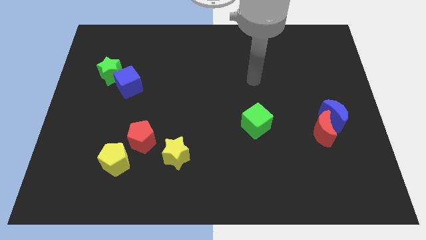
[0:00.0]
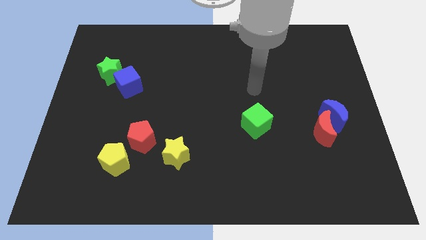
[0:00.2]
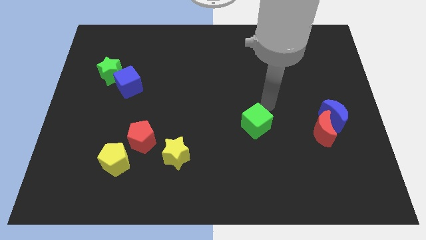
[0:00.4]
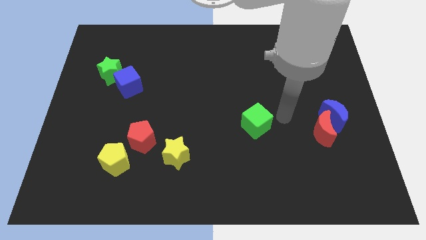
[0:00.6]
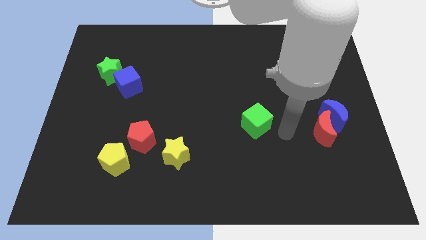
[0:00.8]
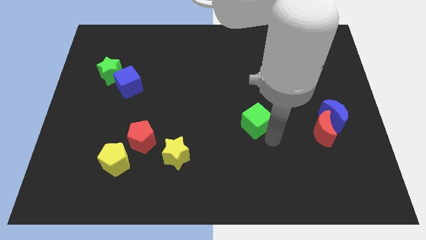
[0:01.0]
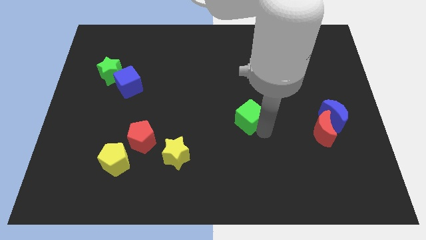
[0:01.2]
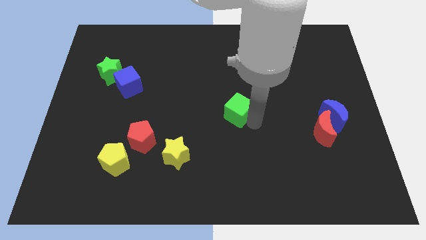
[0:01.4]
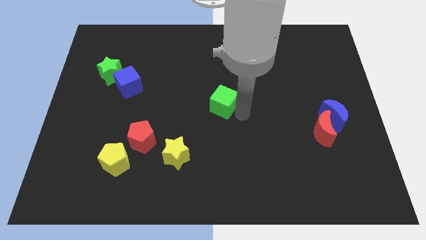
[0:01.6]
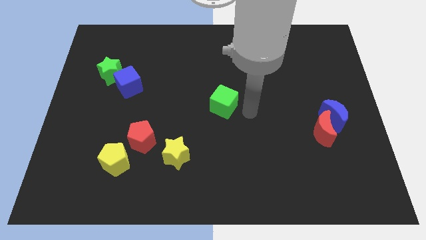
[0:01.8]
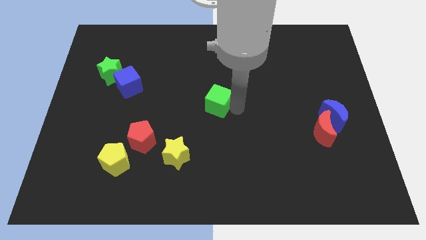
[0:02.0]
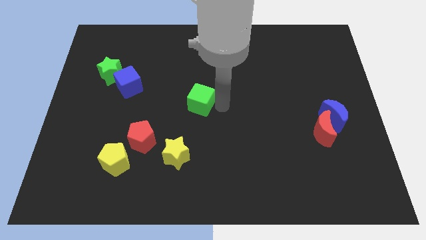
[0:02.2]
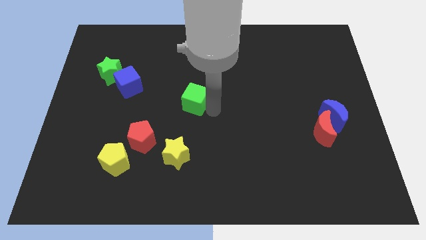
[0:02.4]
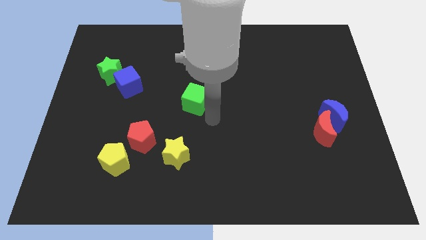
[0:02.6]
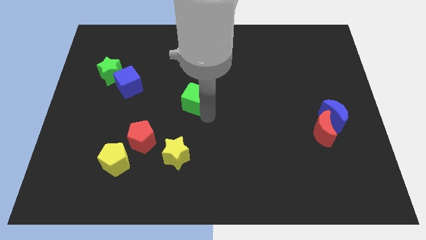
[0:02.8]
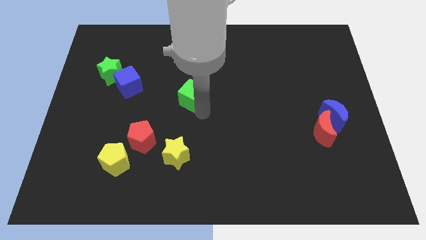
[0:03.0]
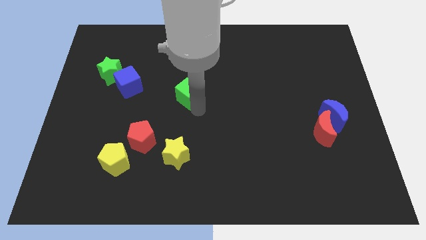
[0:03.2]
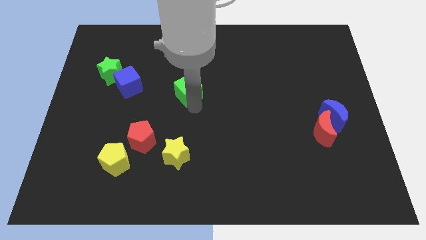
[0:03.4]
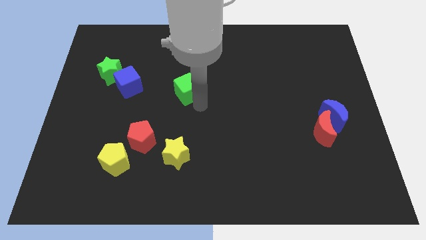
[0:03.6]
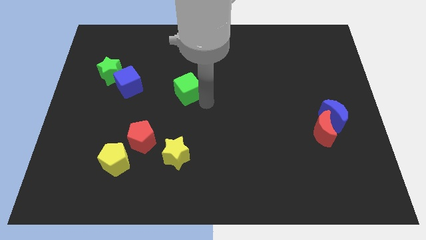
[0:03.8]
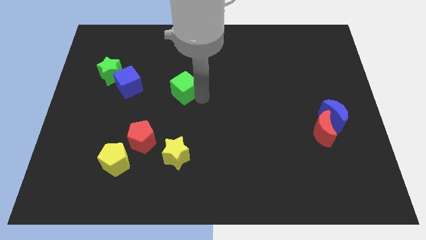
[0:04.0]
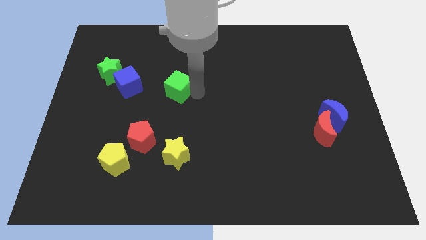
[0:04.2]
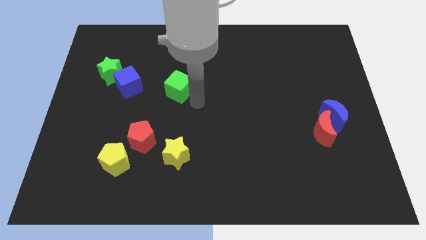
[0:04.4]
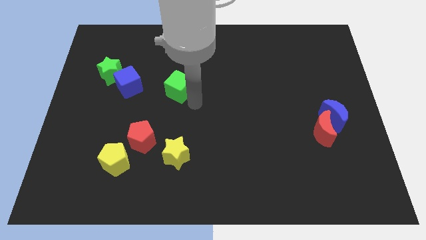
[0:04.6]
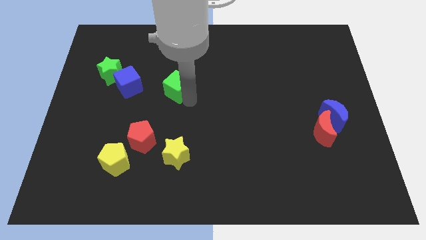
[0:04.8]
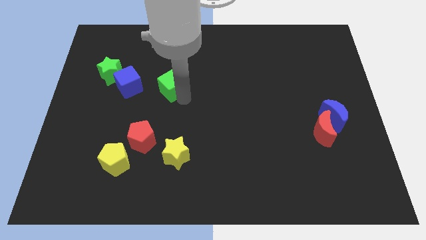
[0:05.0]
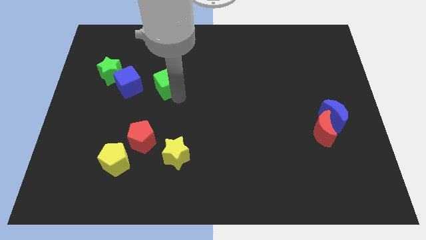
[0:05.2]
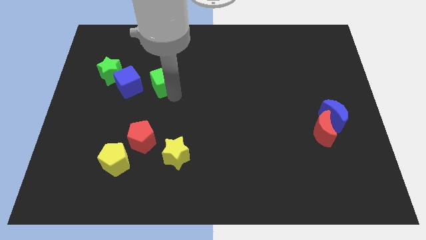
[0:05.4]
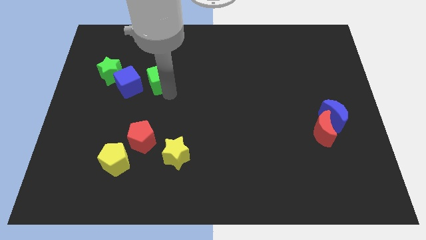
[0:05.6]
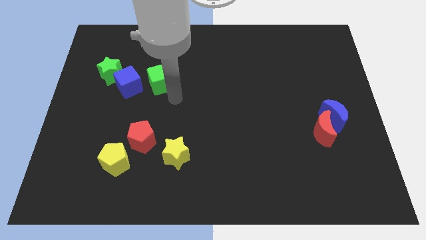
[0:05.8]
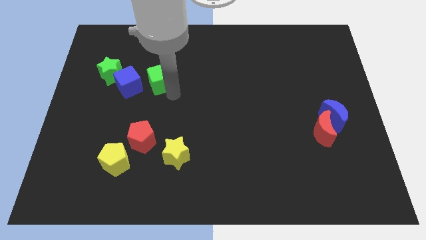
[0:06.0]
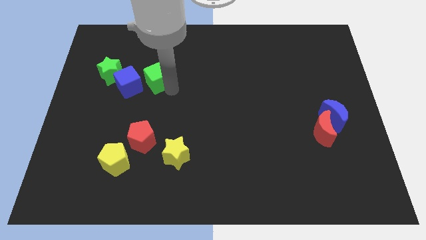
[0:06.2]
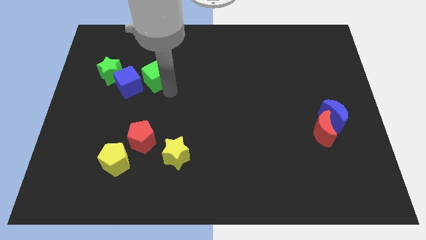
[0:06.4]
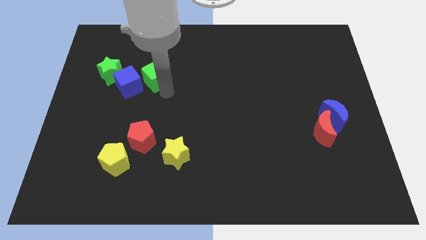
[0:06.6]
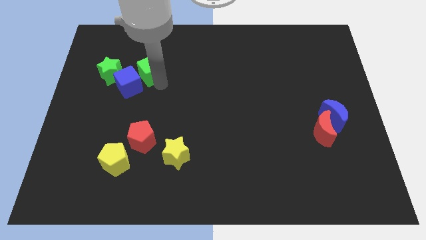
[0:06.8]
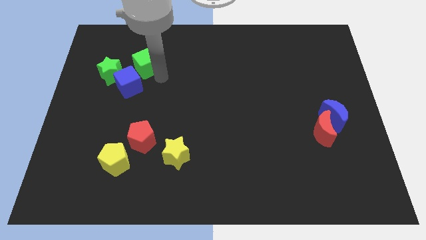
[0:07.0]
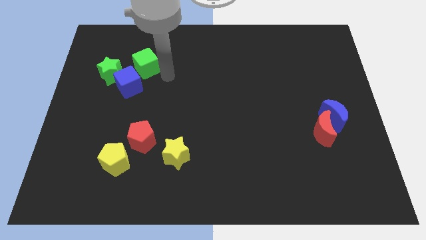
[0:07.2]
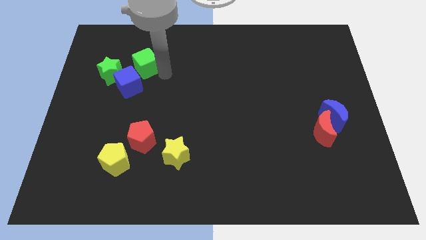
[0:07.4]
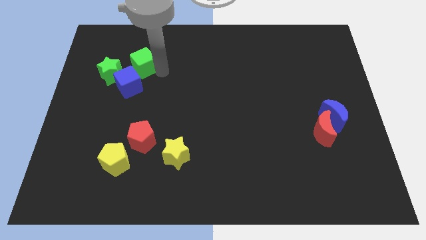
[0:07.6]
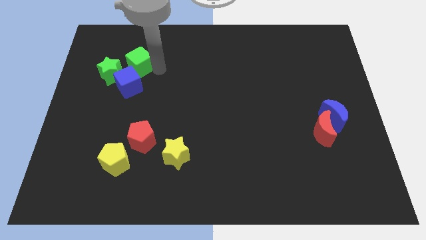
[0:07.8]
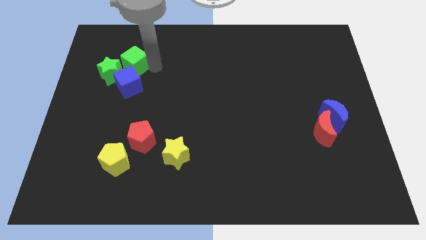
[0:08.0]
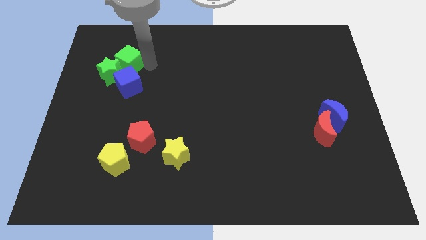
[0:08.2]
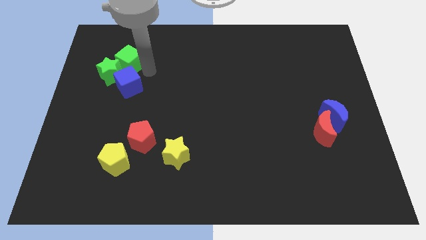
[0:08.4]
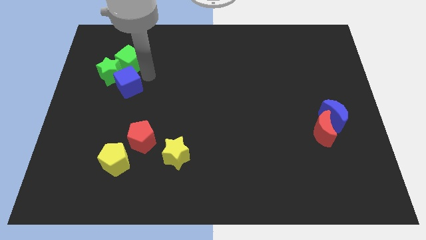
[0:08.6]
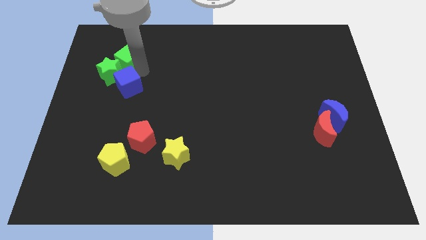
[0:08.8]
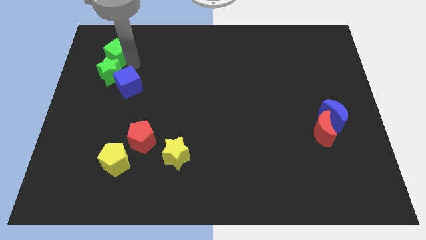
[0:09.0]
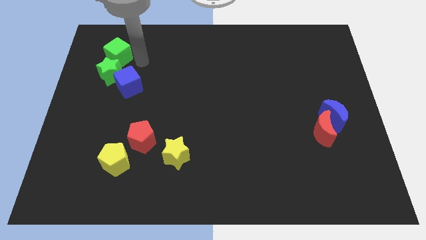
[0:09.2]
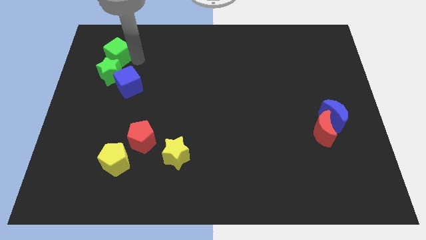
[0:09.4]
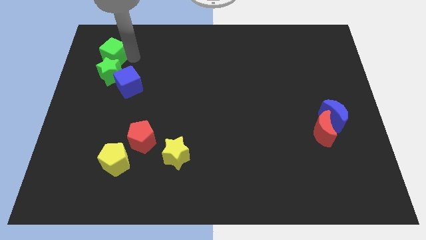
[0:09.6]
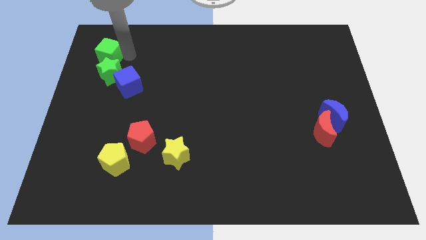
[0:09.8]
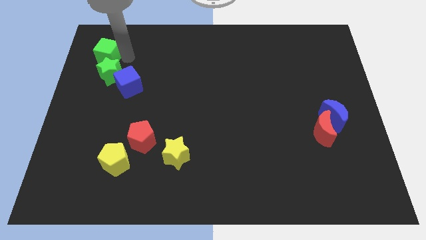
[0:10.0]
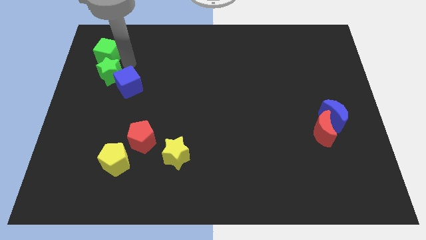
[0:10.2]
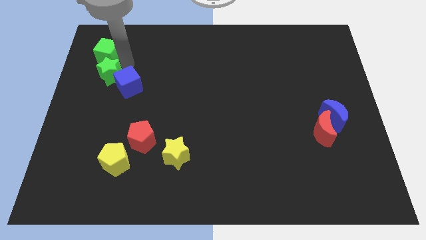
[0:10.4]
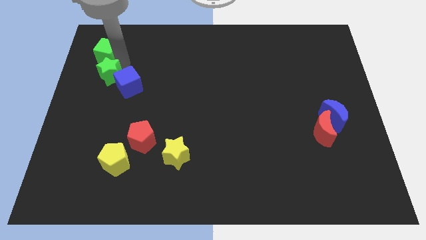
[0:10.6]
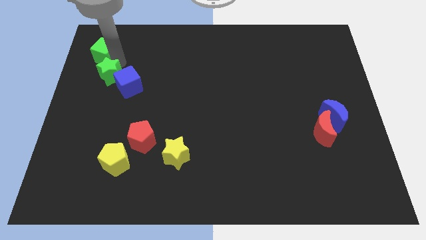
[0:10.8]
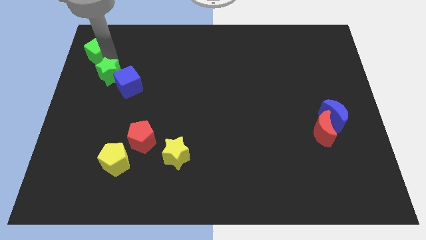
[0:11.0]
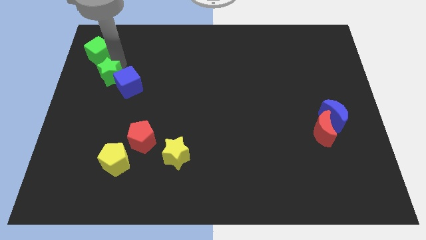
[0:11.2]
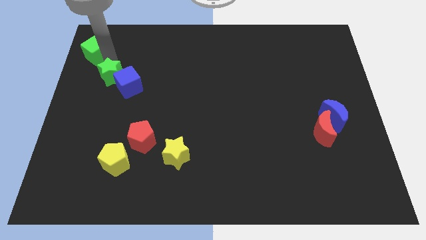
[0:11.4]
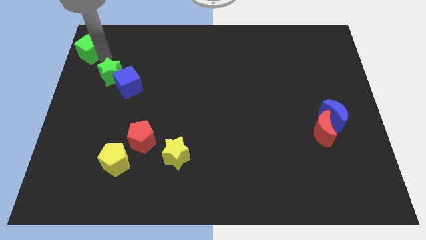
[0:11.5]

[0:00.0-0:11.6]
slide the green cube to the top left corner

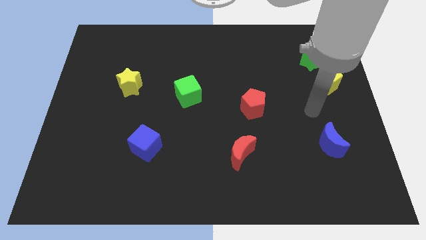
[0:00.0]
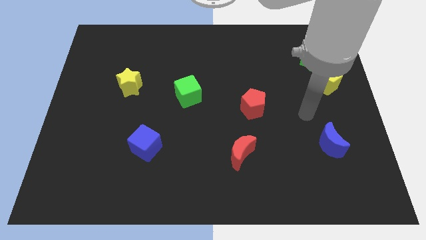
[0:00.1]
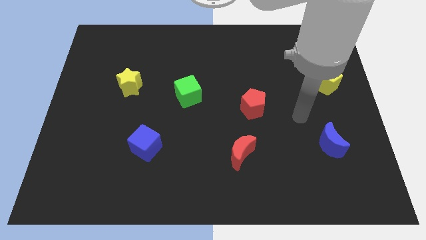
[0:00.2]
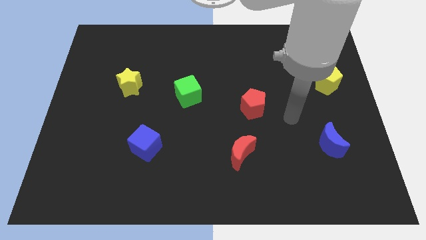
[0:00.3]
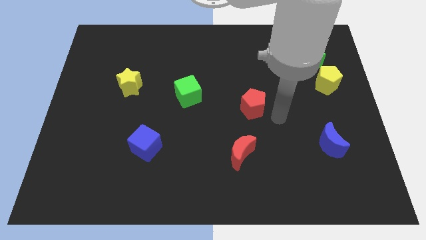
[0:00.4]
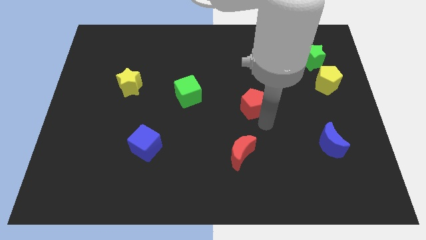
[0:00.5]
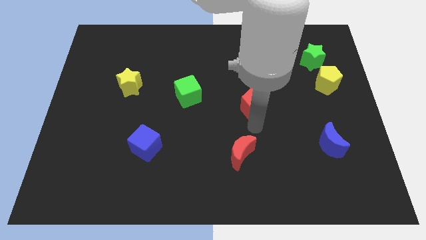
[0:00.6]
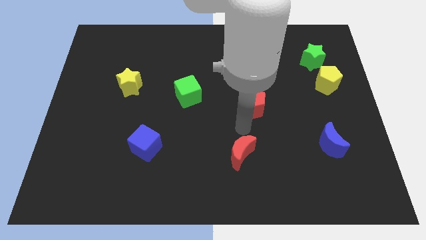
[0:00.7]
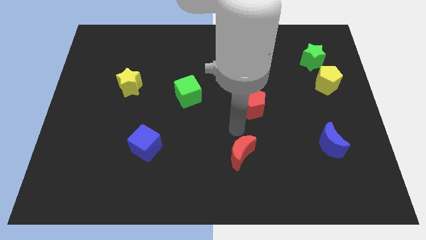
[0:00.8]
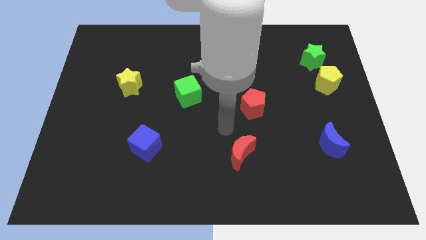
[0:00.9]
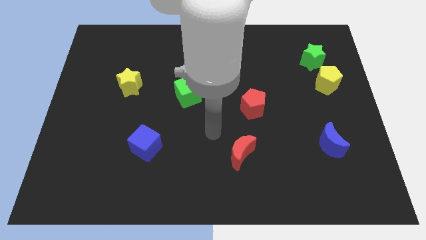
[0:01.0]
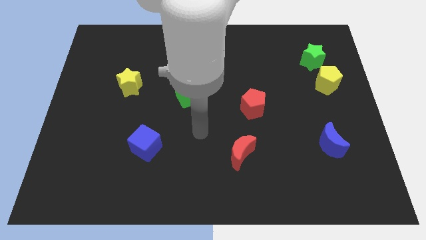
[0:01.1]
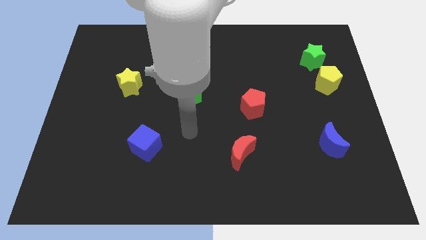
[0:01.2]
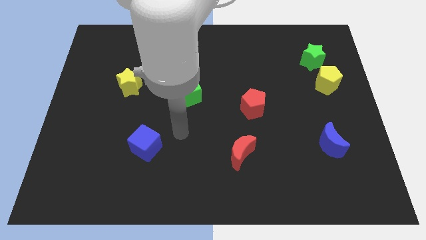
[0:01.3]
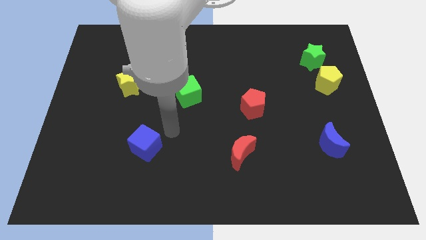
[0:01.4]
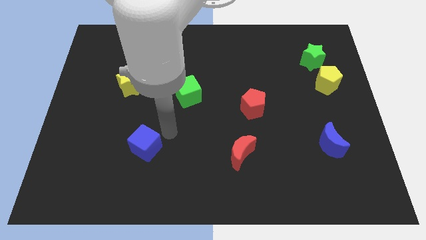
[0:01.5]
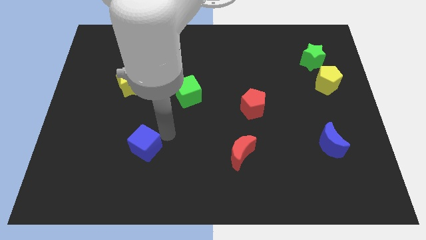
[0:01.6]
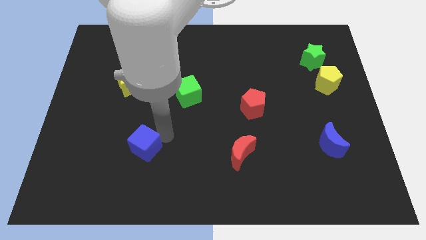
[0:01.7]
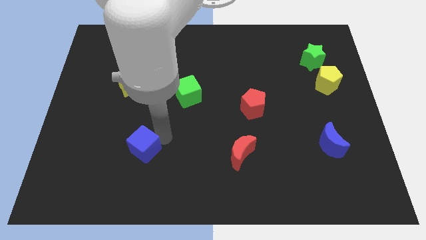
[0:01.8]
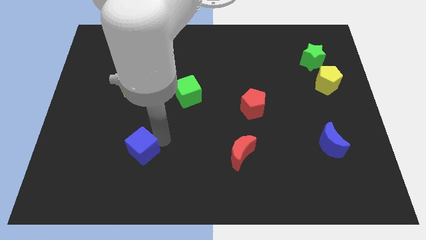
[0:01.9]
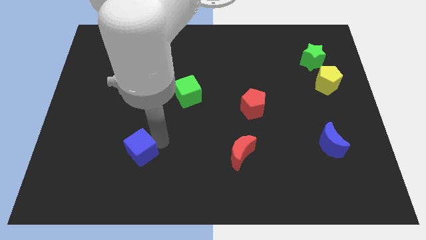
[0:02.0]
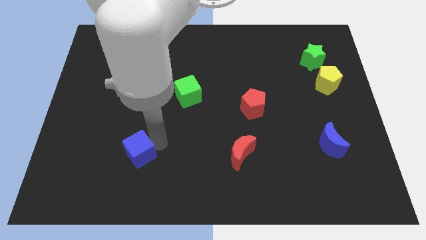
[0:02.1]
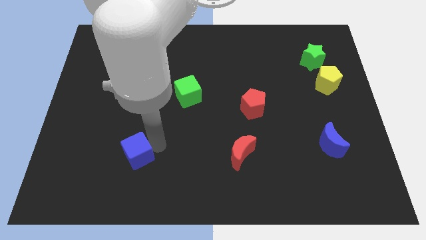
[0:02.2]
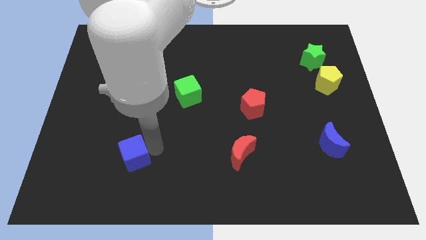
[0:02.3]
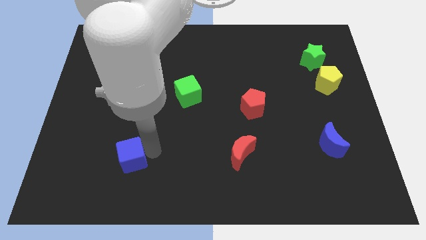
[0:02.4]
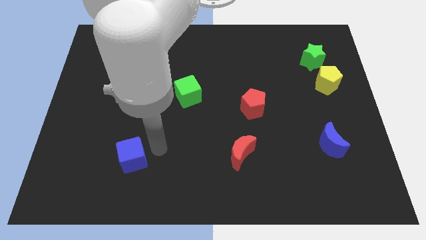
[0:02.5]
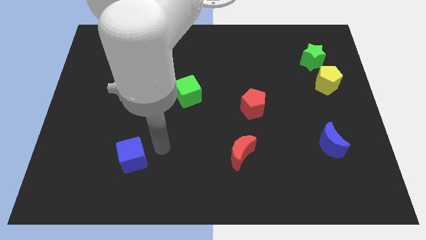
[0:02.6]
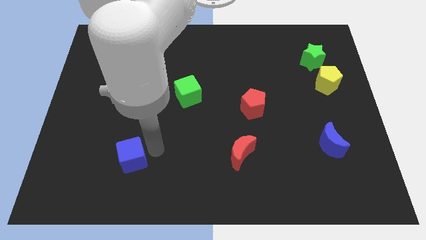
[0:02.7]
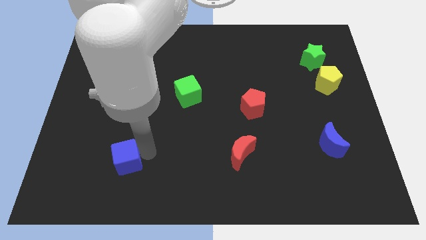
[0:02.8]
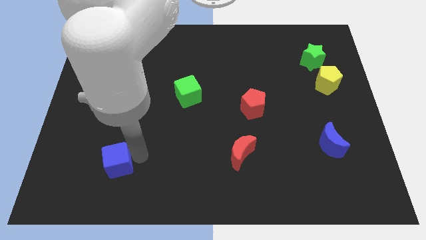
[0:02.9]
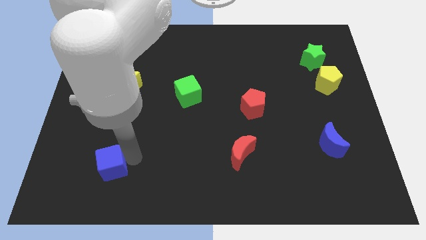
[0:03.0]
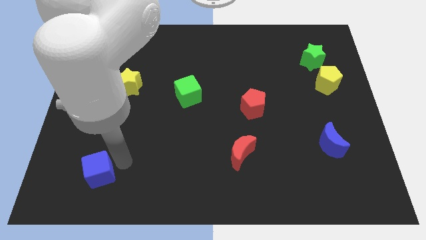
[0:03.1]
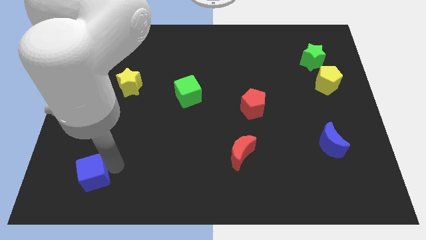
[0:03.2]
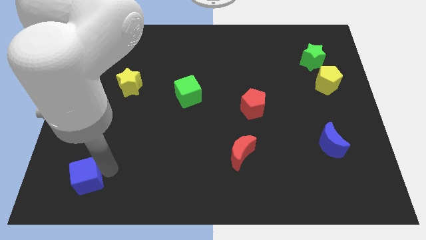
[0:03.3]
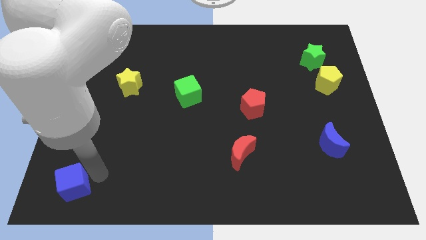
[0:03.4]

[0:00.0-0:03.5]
put the blue cube to the bottom left corner
